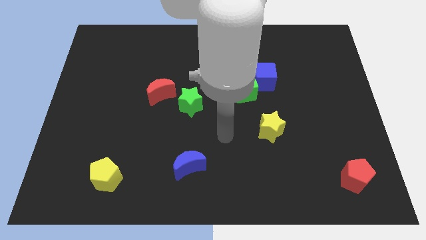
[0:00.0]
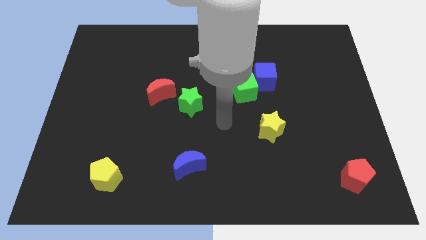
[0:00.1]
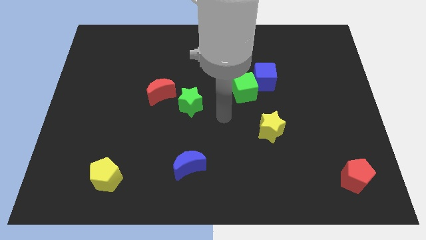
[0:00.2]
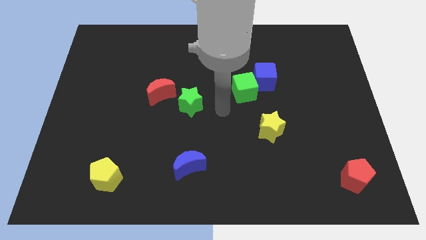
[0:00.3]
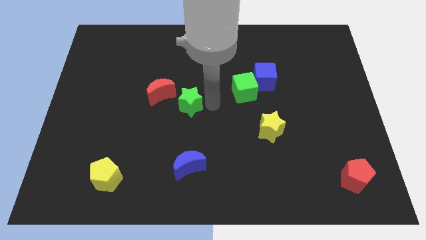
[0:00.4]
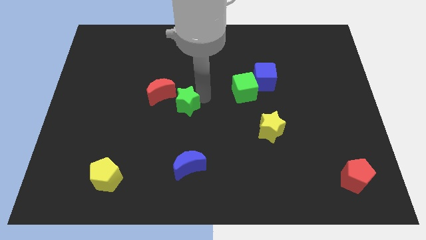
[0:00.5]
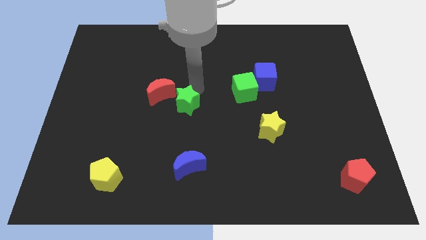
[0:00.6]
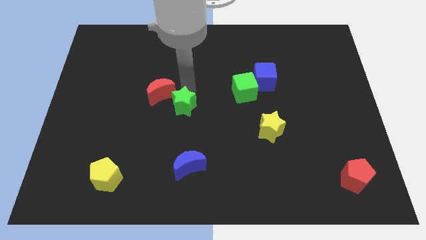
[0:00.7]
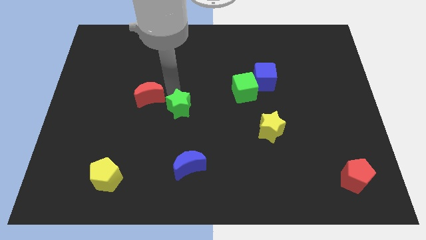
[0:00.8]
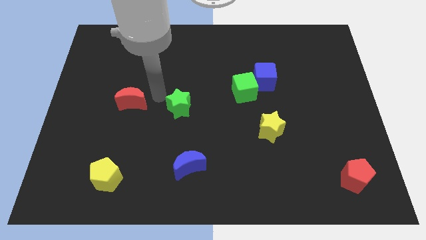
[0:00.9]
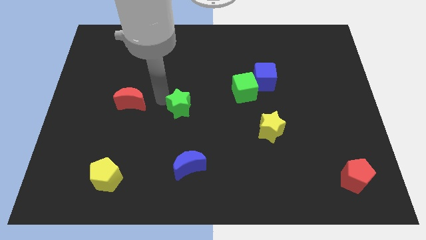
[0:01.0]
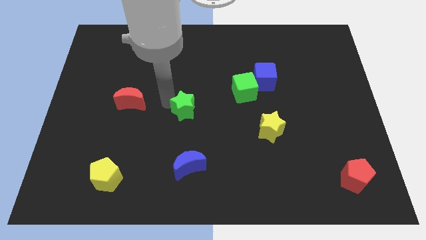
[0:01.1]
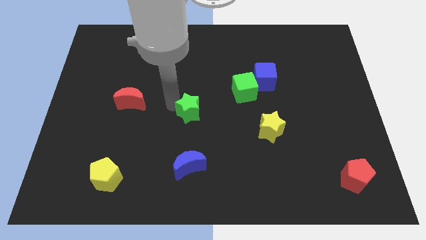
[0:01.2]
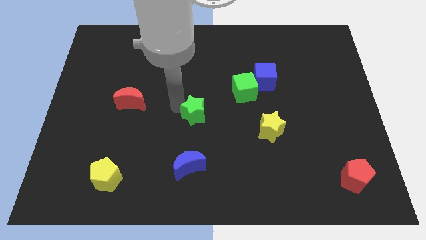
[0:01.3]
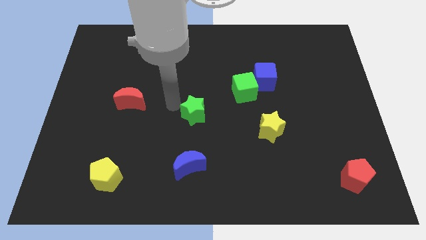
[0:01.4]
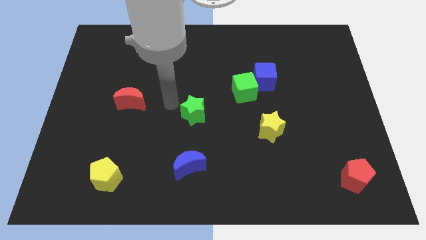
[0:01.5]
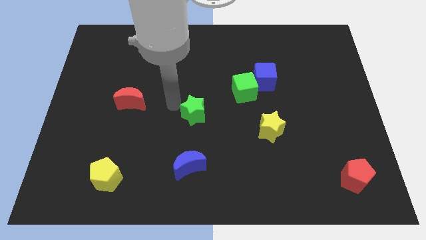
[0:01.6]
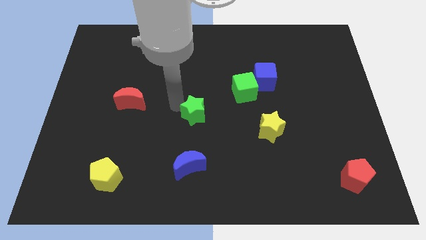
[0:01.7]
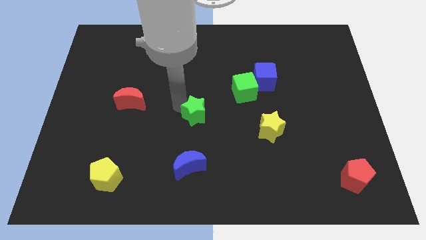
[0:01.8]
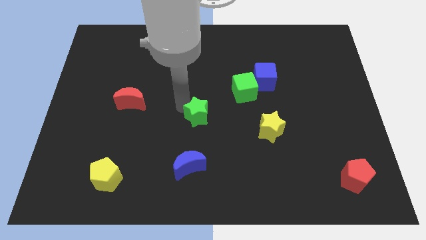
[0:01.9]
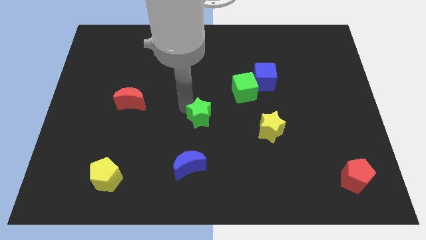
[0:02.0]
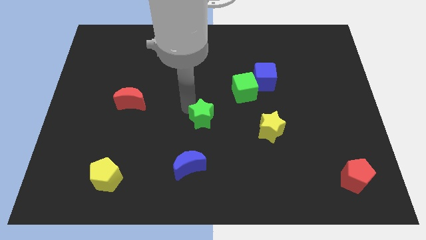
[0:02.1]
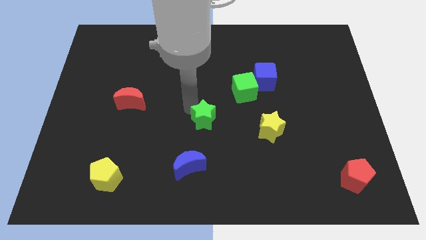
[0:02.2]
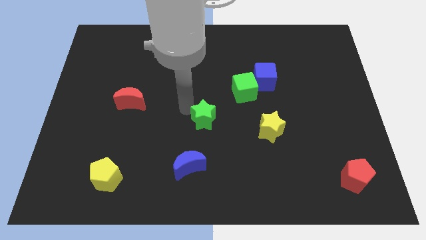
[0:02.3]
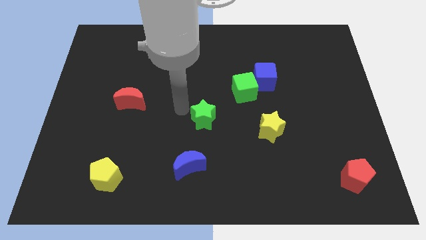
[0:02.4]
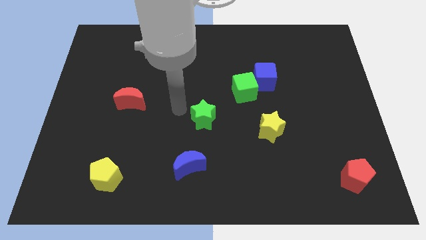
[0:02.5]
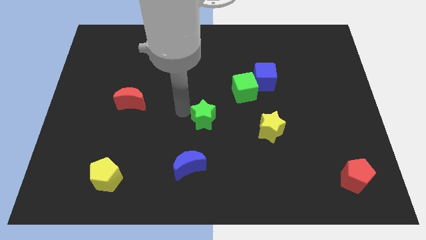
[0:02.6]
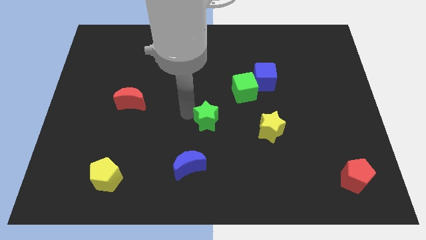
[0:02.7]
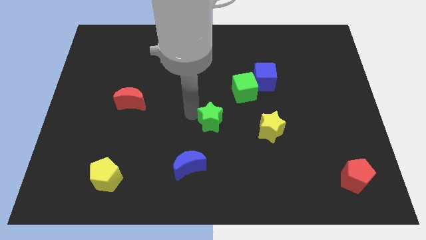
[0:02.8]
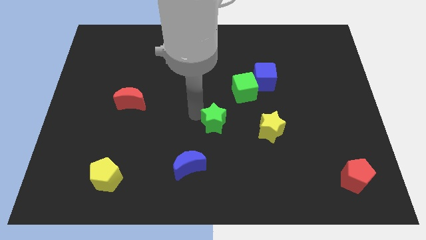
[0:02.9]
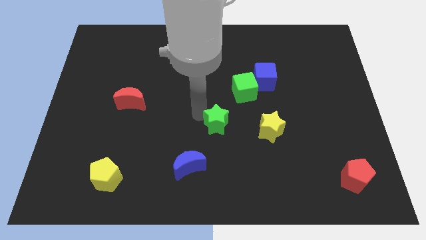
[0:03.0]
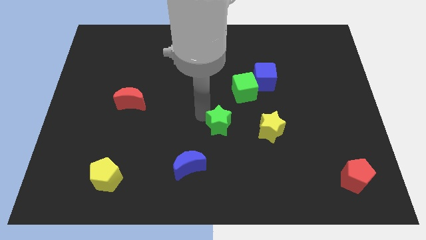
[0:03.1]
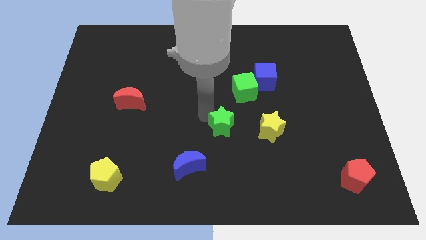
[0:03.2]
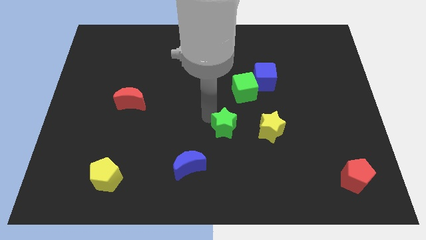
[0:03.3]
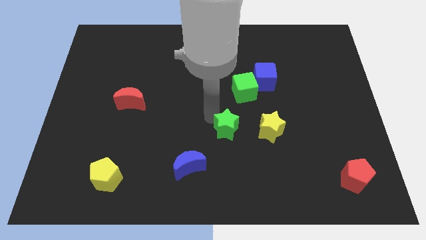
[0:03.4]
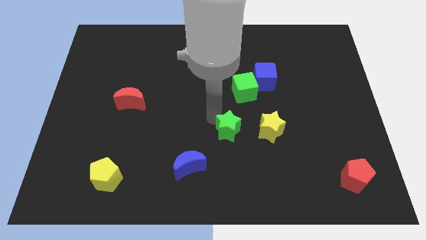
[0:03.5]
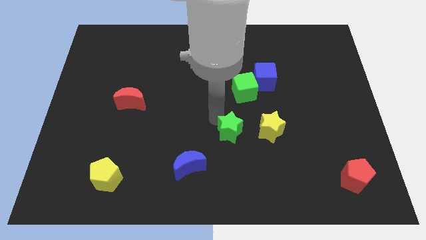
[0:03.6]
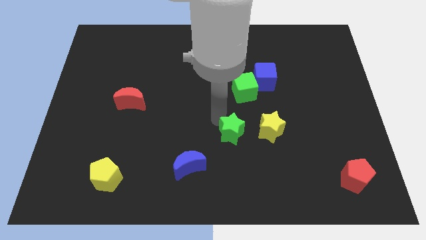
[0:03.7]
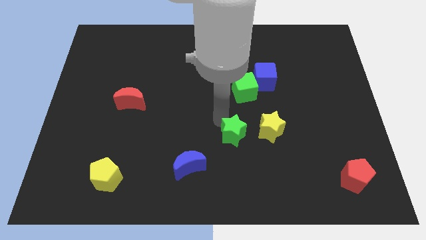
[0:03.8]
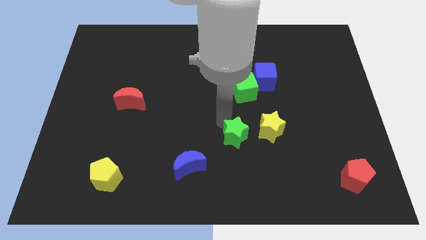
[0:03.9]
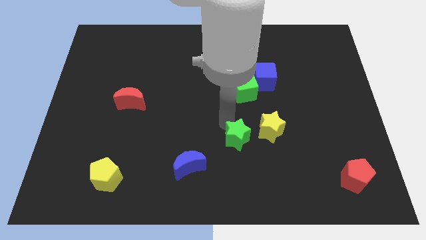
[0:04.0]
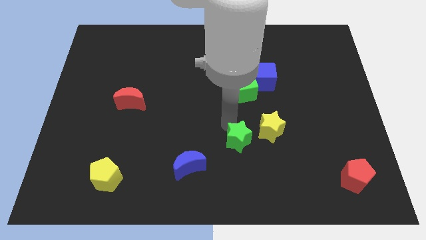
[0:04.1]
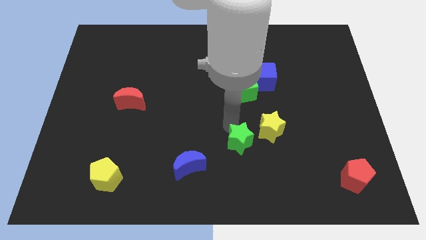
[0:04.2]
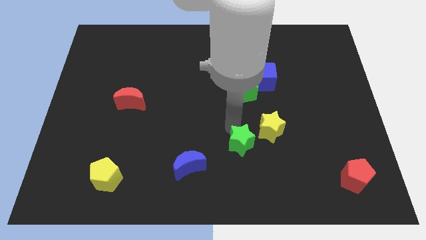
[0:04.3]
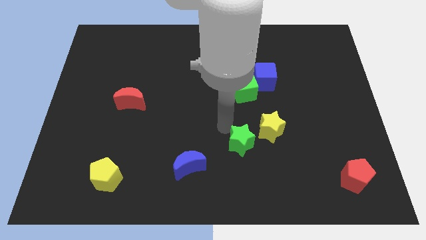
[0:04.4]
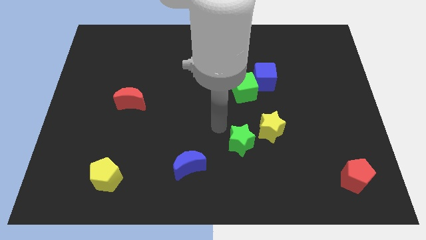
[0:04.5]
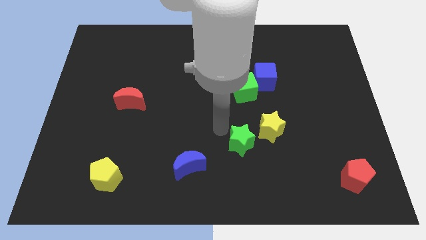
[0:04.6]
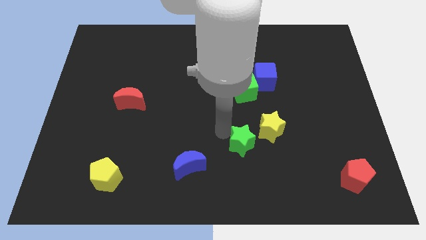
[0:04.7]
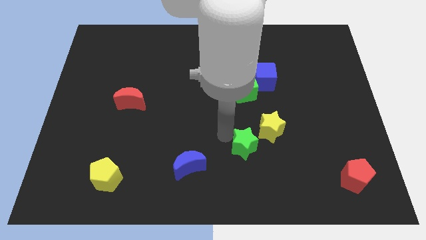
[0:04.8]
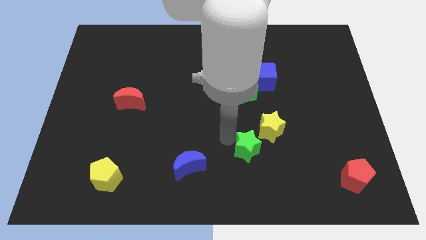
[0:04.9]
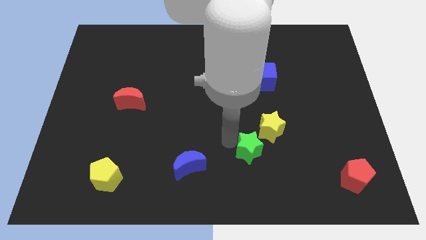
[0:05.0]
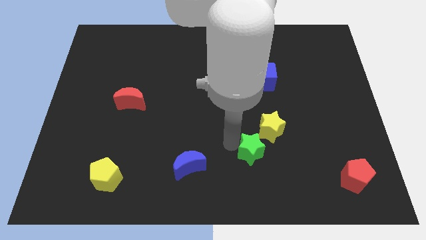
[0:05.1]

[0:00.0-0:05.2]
slide the green star below the yellow star

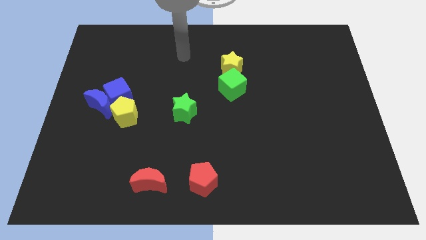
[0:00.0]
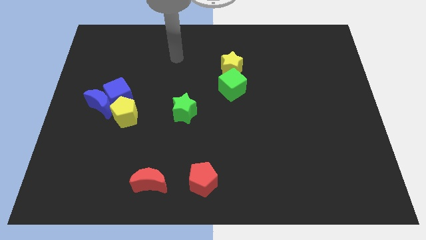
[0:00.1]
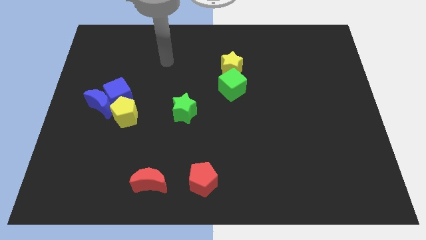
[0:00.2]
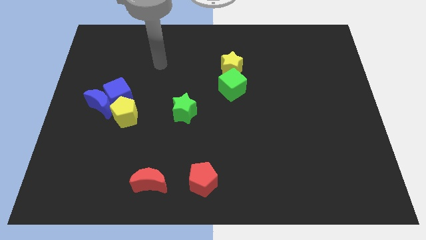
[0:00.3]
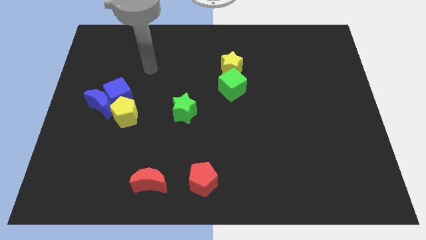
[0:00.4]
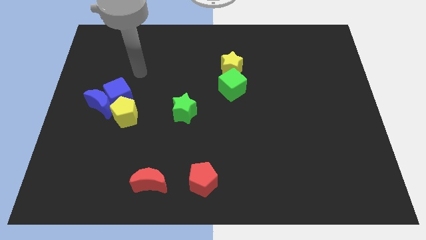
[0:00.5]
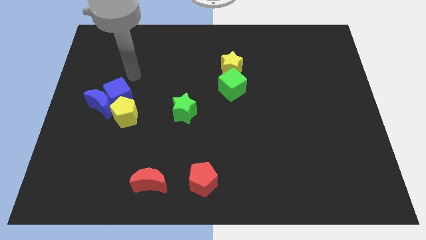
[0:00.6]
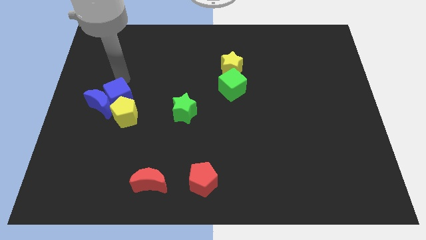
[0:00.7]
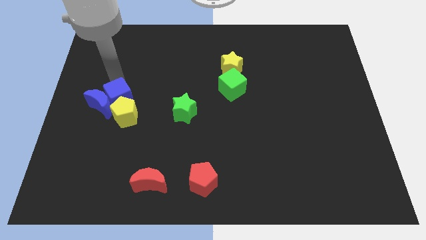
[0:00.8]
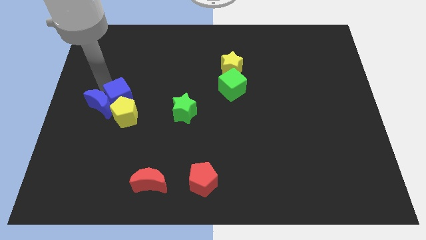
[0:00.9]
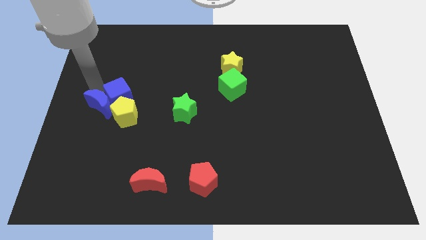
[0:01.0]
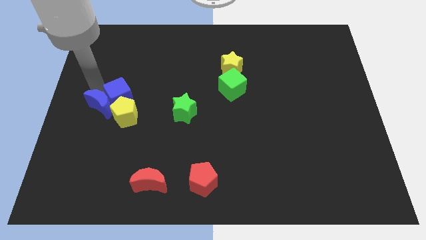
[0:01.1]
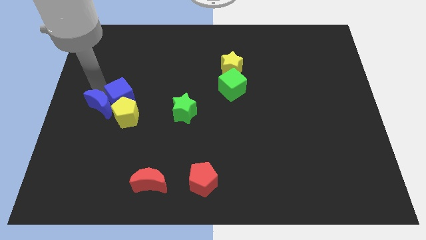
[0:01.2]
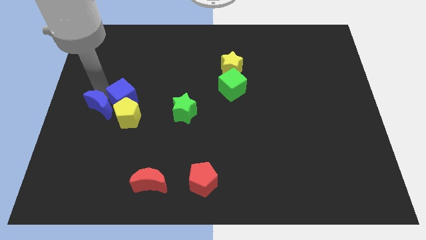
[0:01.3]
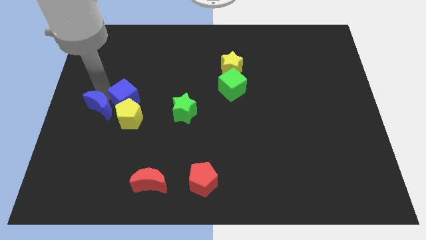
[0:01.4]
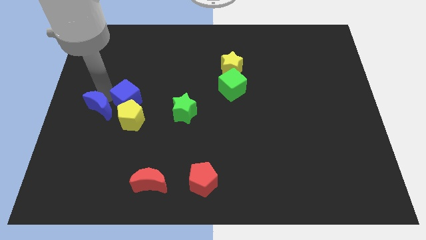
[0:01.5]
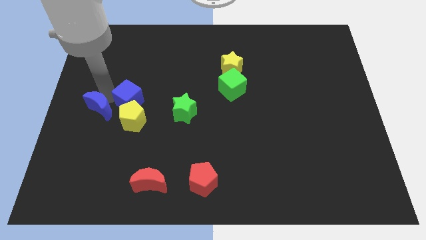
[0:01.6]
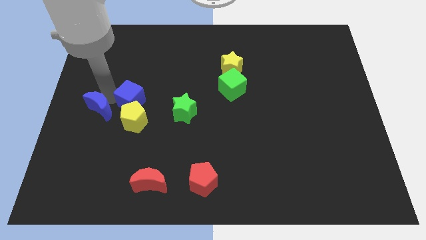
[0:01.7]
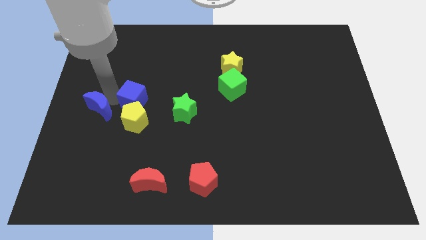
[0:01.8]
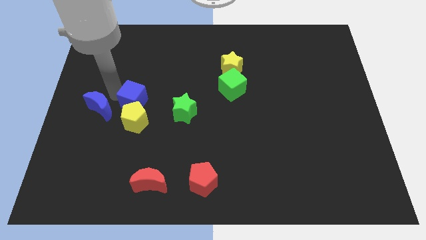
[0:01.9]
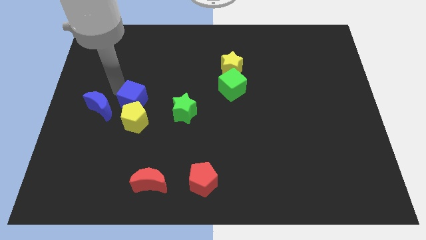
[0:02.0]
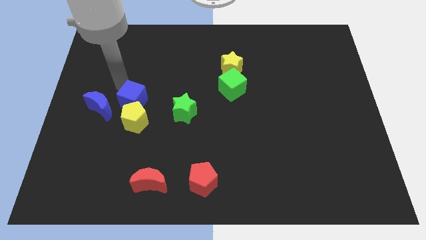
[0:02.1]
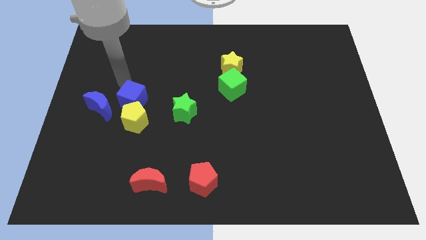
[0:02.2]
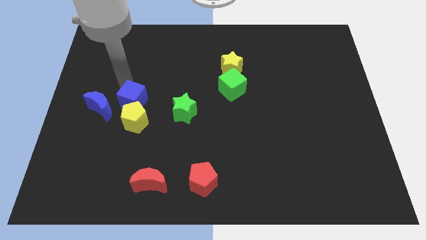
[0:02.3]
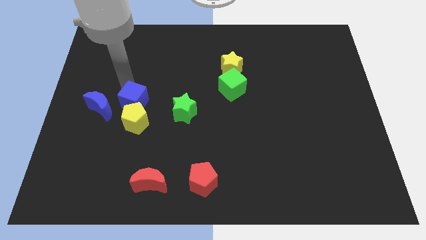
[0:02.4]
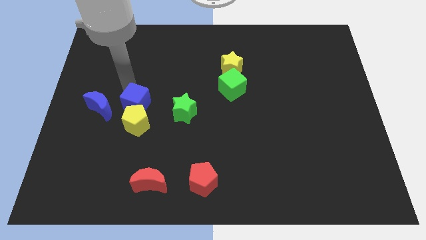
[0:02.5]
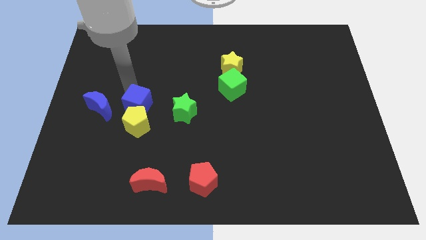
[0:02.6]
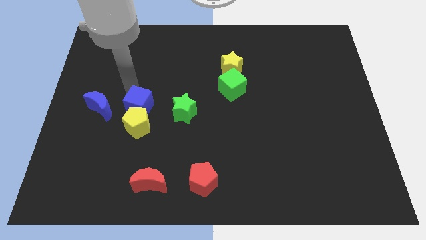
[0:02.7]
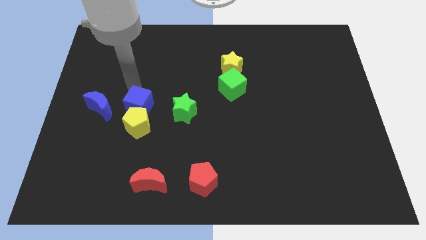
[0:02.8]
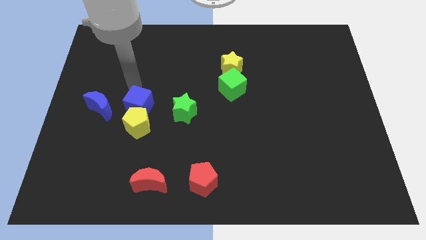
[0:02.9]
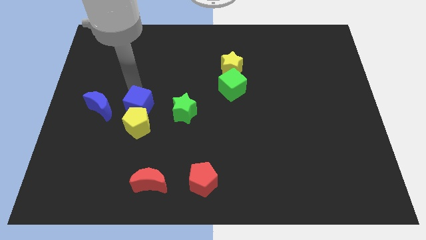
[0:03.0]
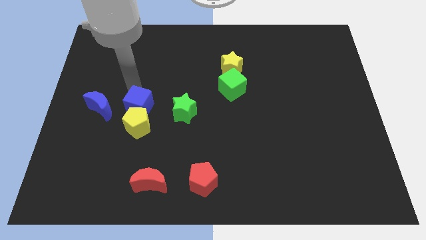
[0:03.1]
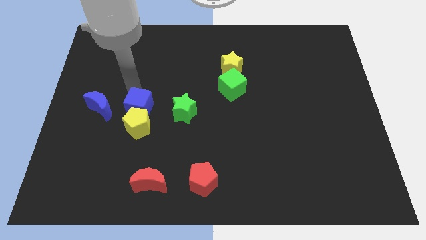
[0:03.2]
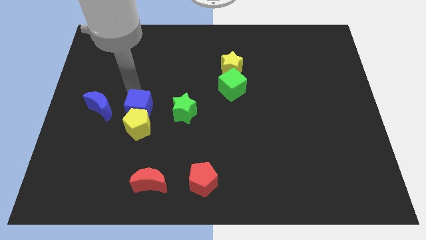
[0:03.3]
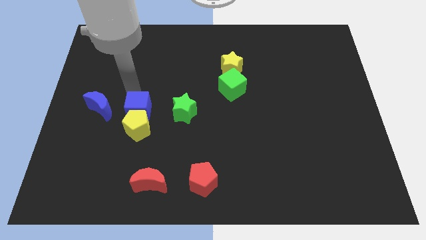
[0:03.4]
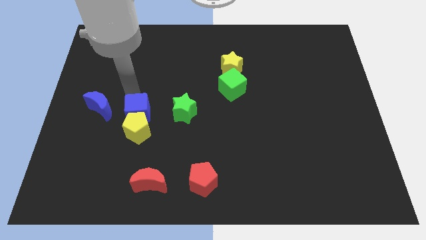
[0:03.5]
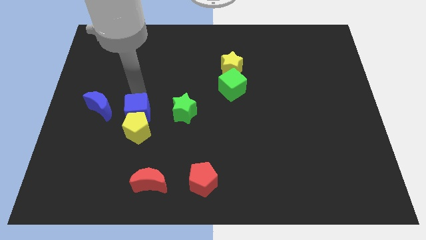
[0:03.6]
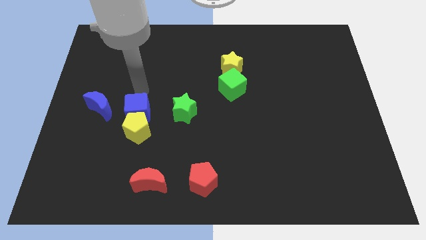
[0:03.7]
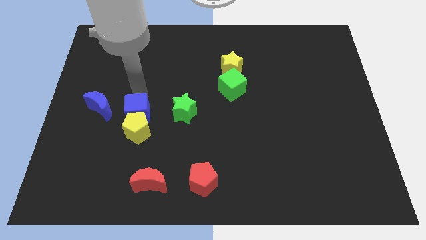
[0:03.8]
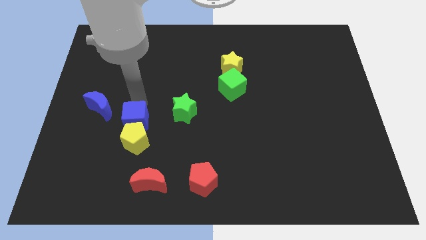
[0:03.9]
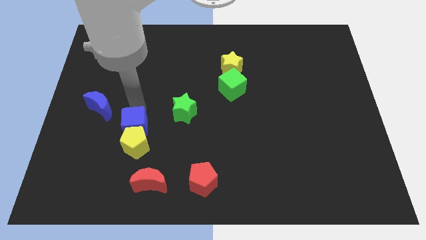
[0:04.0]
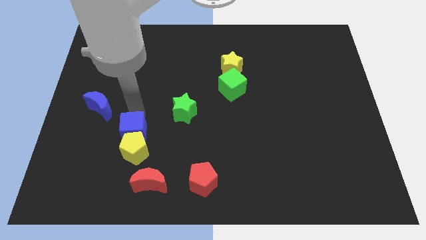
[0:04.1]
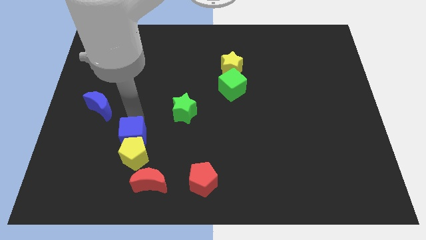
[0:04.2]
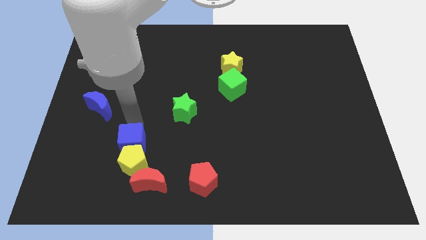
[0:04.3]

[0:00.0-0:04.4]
move the blue cube to the top left side of the red moon
